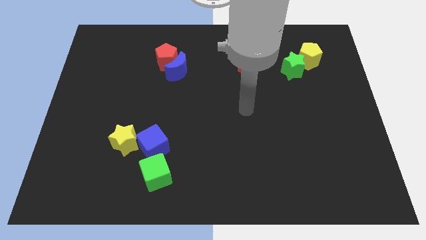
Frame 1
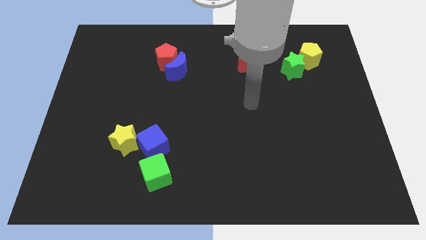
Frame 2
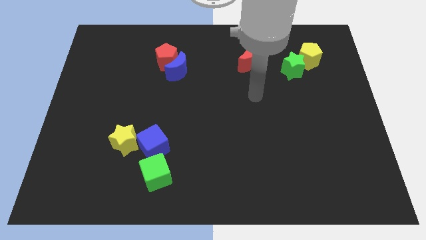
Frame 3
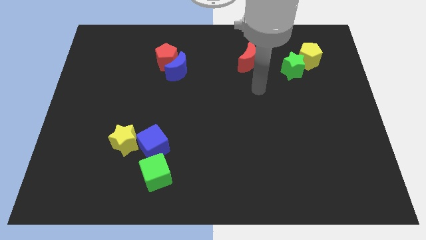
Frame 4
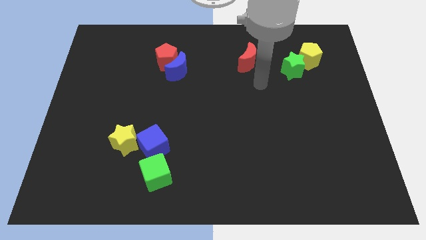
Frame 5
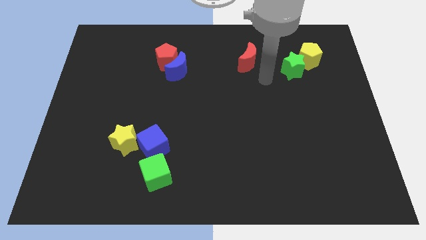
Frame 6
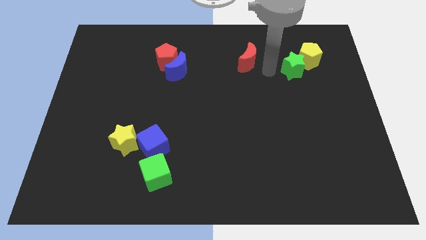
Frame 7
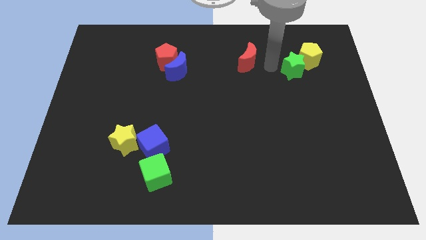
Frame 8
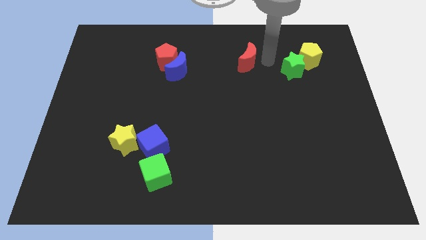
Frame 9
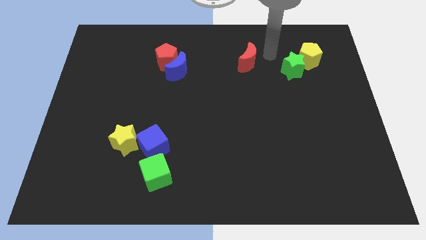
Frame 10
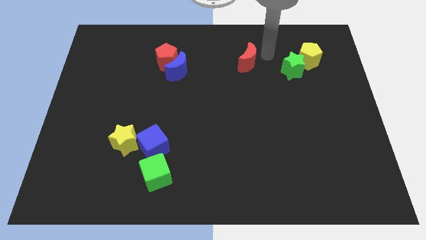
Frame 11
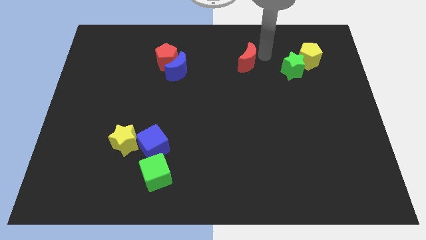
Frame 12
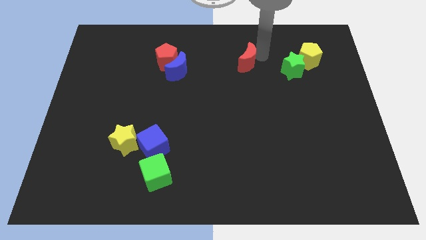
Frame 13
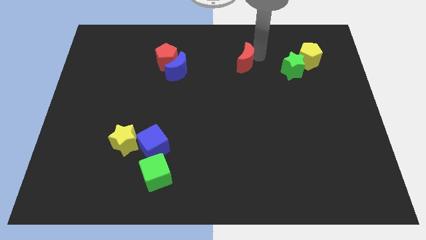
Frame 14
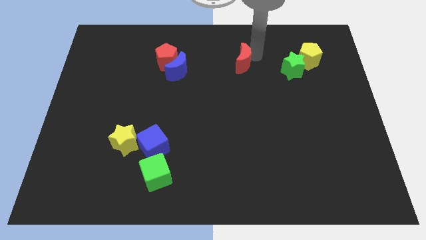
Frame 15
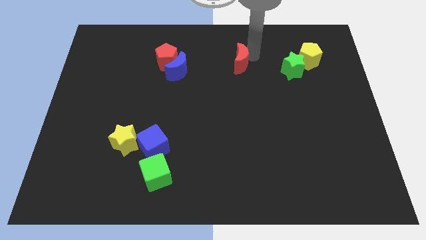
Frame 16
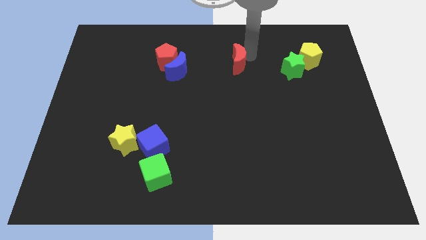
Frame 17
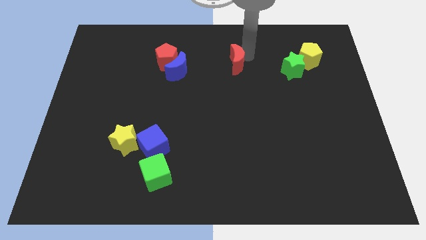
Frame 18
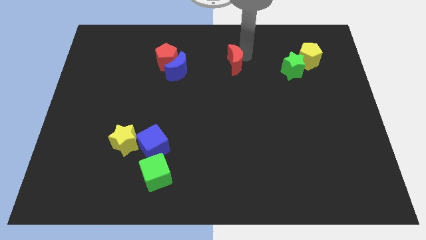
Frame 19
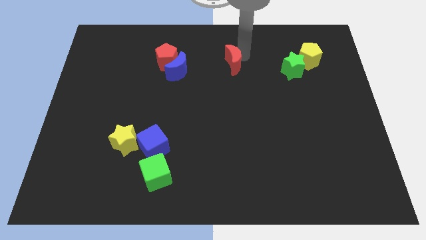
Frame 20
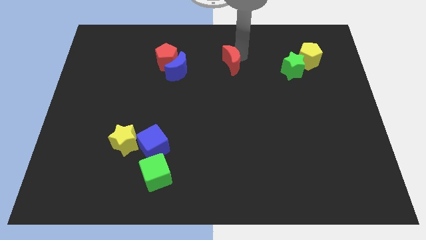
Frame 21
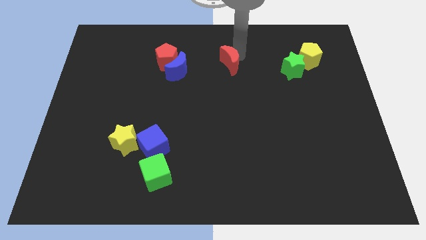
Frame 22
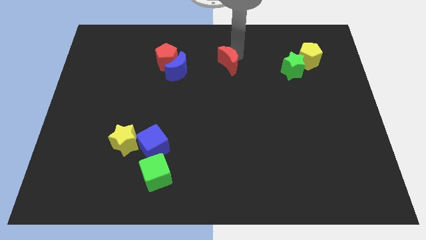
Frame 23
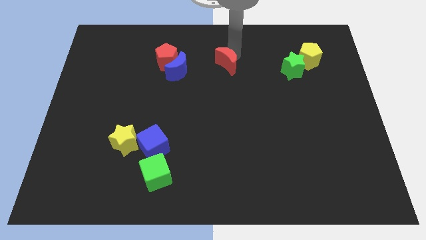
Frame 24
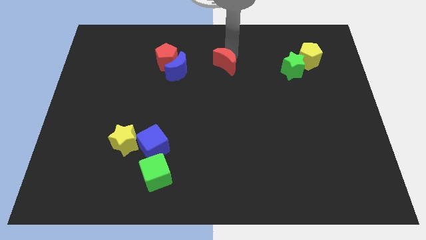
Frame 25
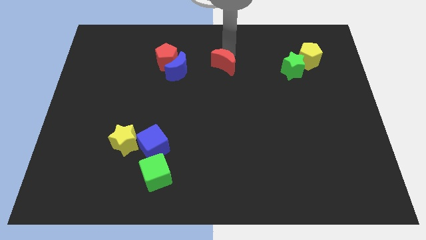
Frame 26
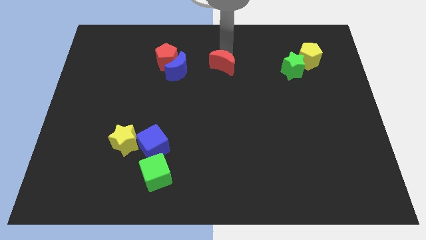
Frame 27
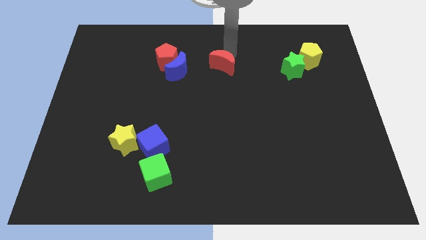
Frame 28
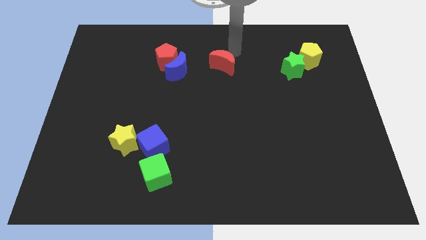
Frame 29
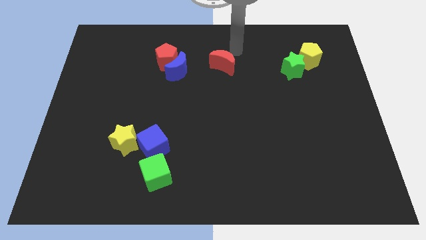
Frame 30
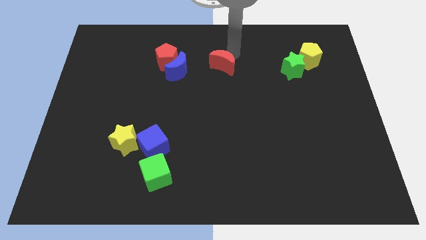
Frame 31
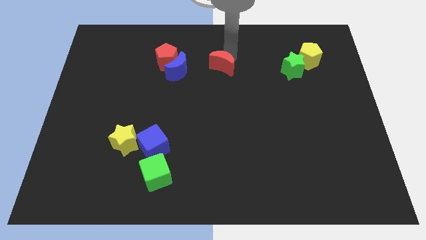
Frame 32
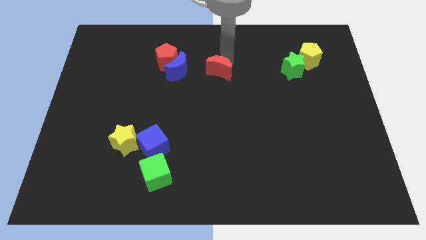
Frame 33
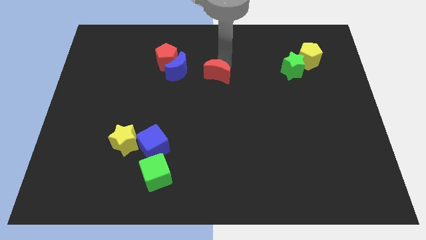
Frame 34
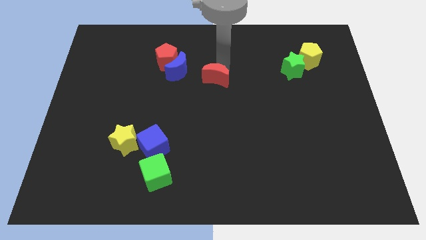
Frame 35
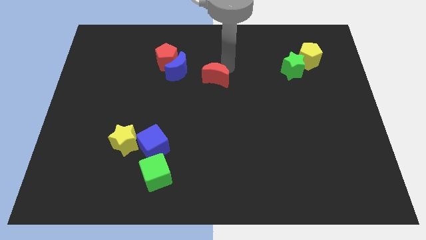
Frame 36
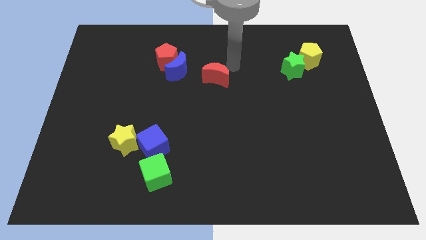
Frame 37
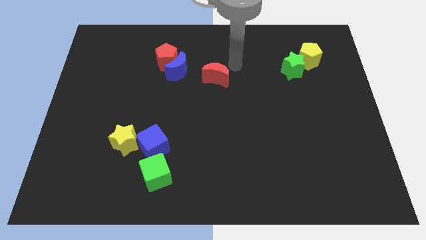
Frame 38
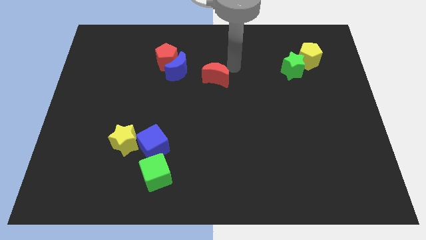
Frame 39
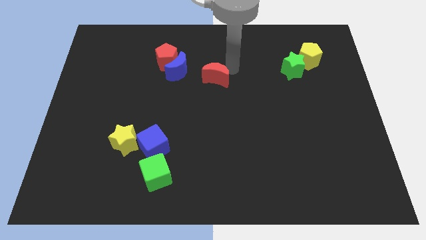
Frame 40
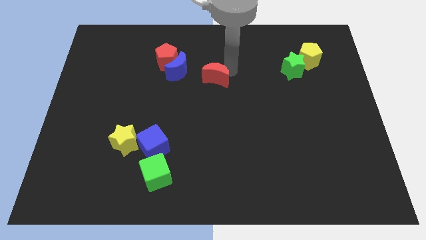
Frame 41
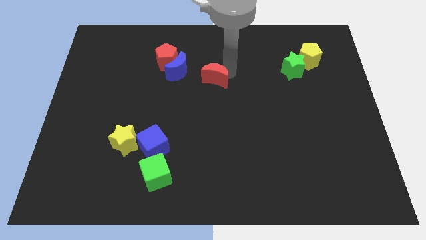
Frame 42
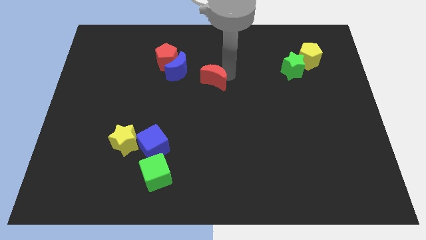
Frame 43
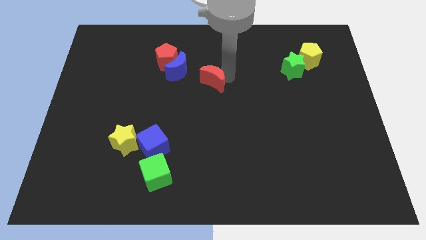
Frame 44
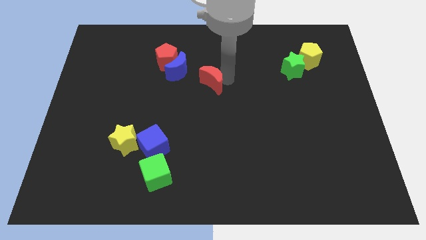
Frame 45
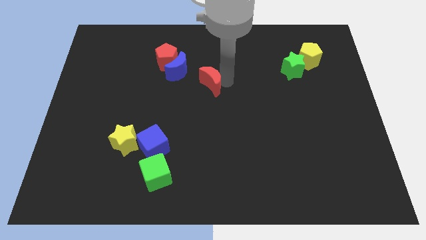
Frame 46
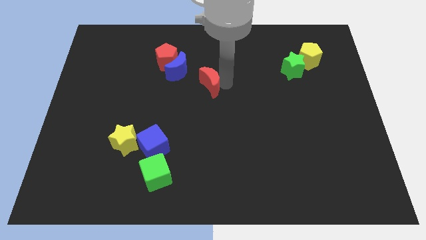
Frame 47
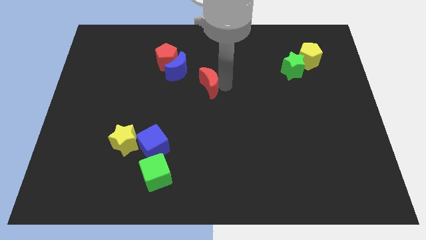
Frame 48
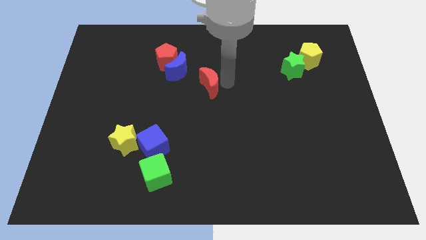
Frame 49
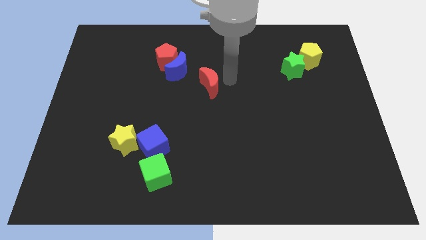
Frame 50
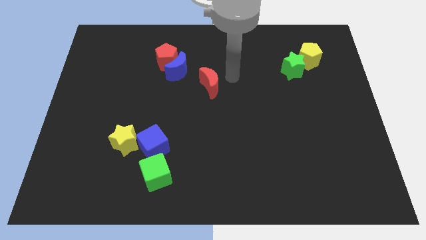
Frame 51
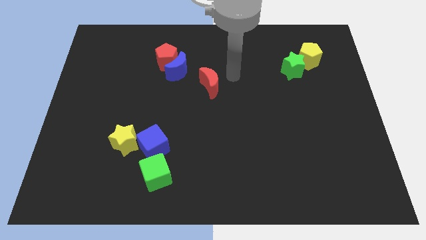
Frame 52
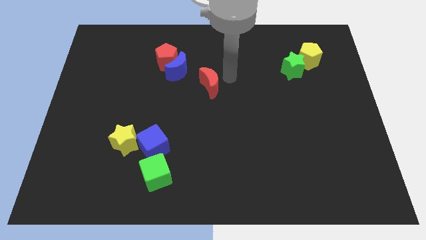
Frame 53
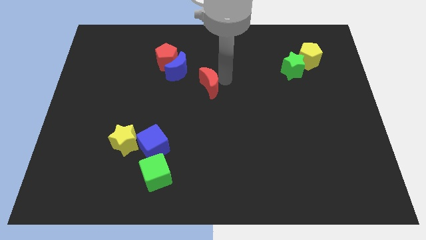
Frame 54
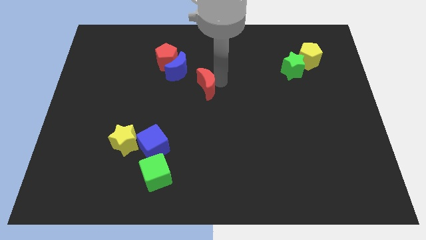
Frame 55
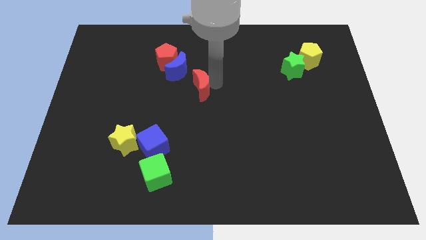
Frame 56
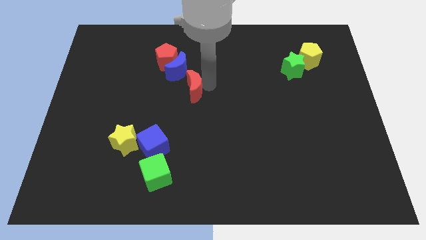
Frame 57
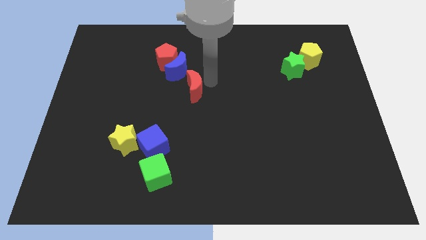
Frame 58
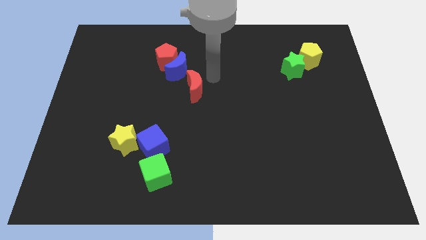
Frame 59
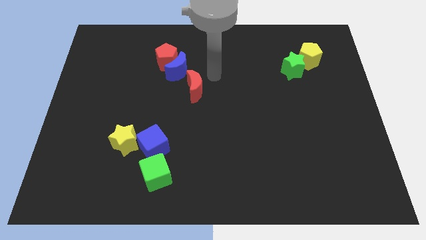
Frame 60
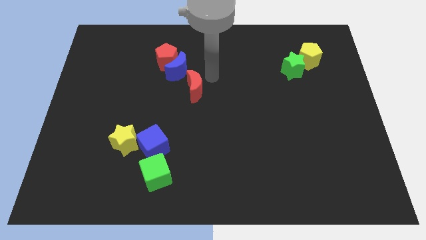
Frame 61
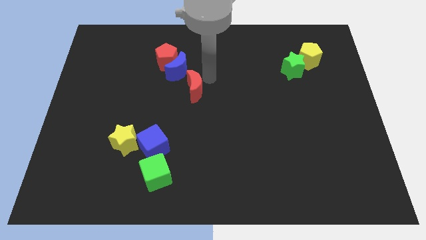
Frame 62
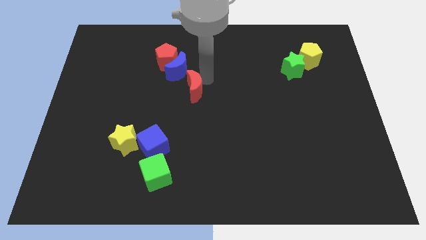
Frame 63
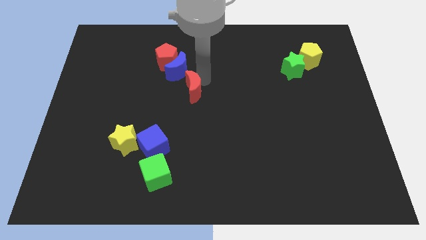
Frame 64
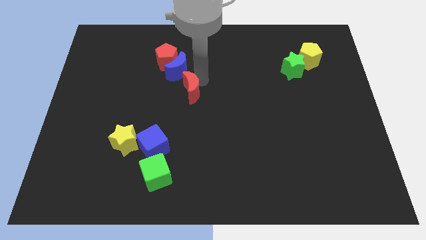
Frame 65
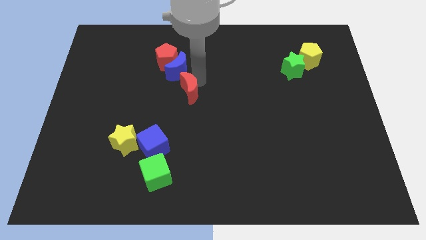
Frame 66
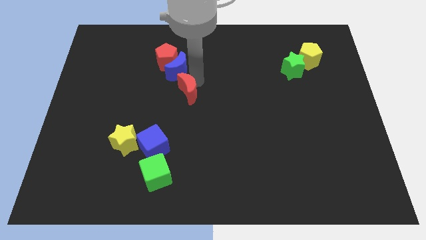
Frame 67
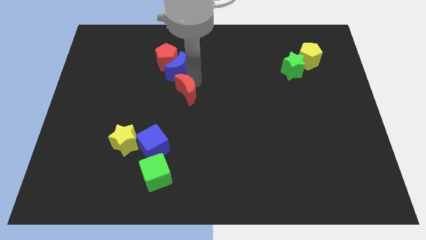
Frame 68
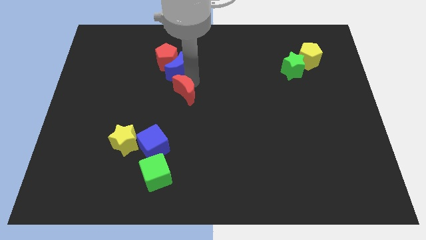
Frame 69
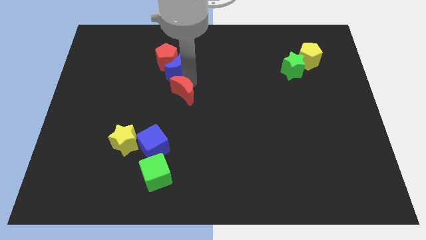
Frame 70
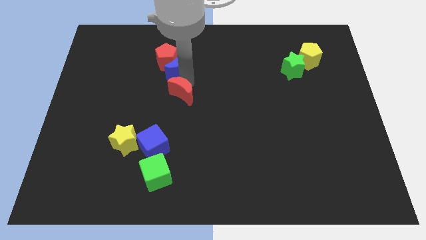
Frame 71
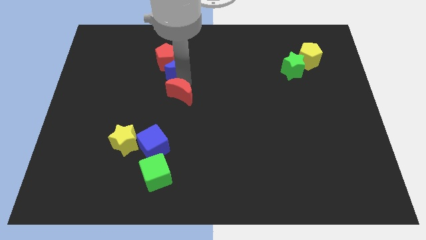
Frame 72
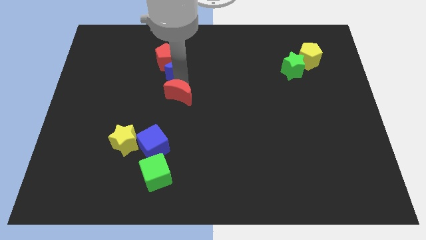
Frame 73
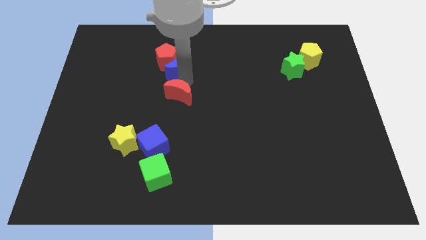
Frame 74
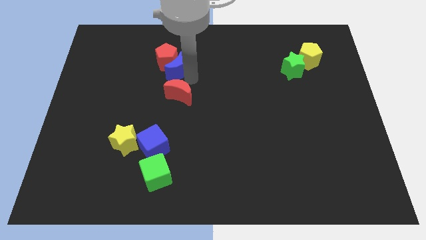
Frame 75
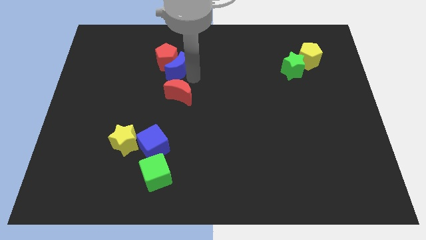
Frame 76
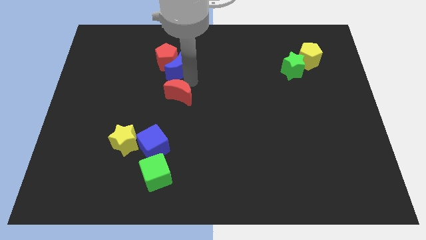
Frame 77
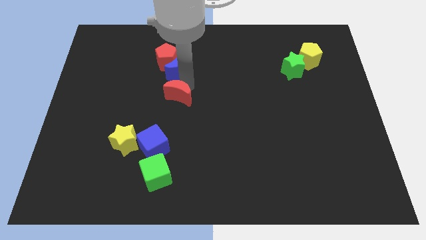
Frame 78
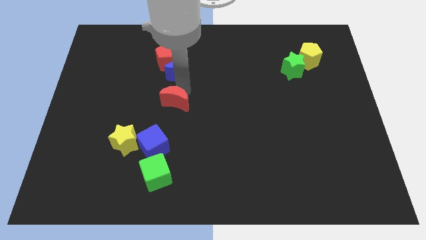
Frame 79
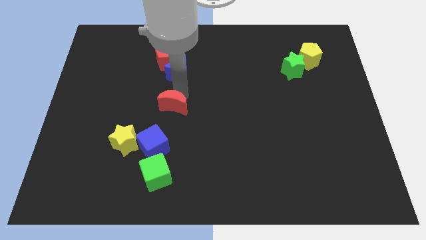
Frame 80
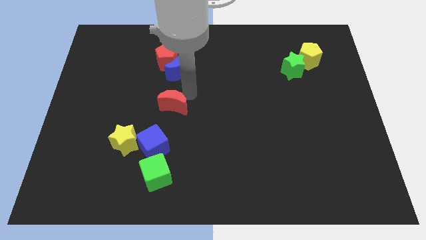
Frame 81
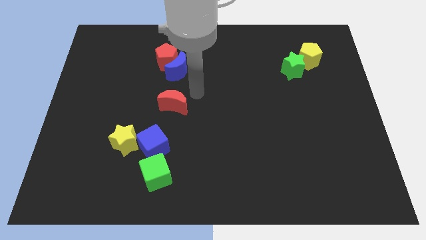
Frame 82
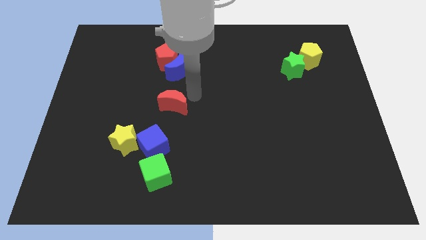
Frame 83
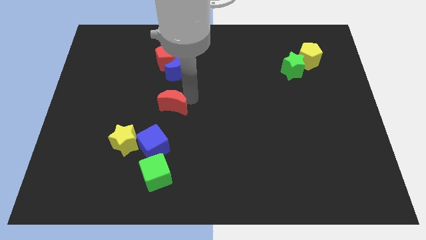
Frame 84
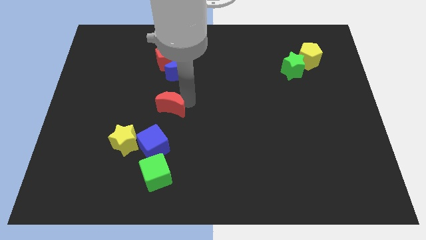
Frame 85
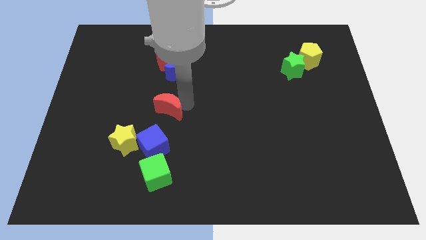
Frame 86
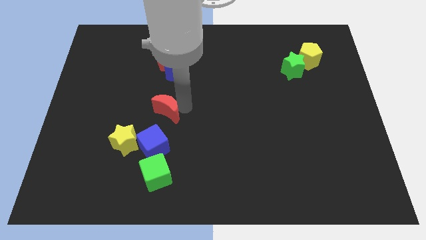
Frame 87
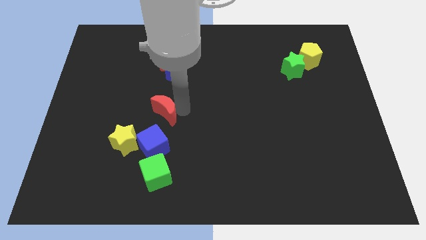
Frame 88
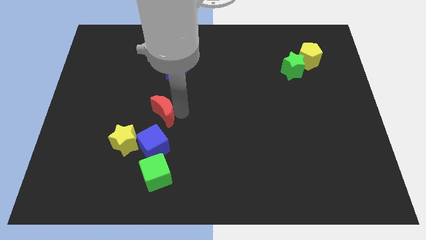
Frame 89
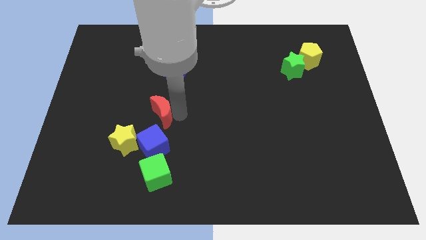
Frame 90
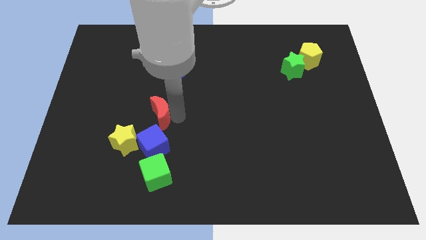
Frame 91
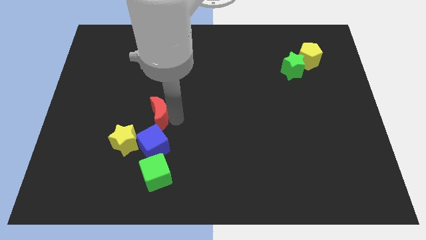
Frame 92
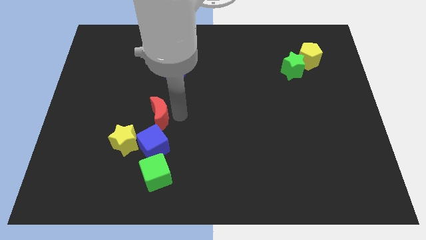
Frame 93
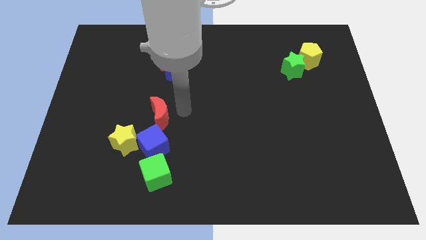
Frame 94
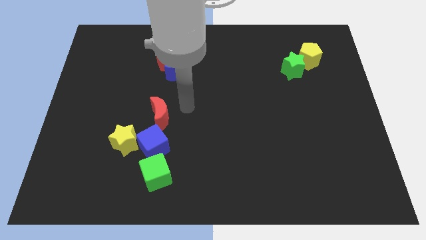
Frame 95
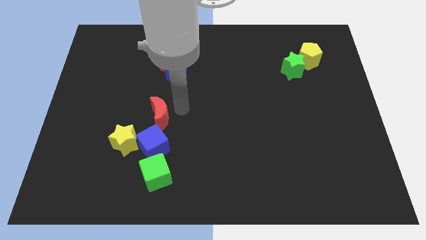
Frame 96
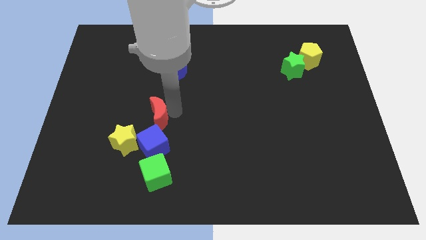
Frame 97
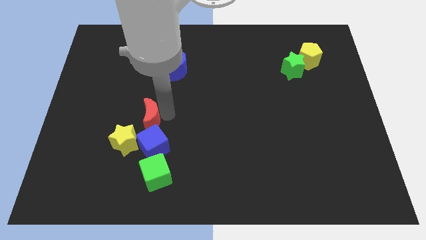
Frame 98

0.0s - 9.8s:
push the red moon to the top left of the blue cube
